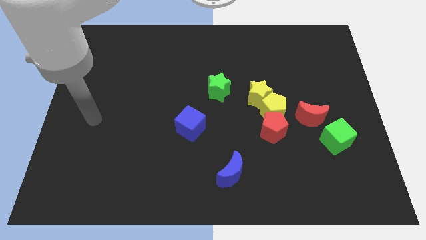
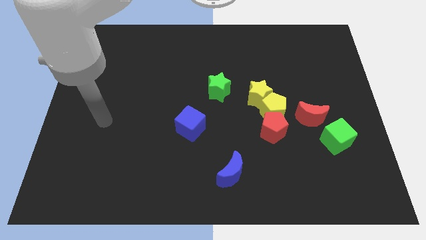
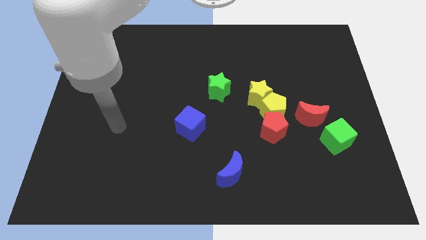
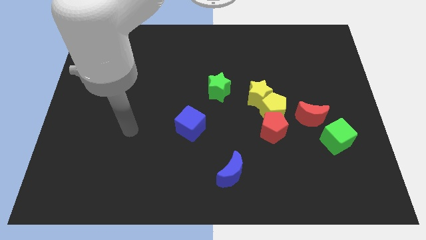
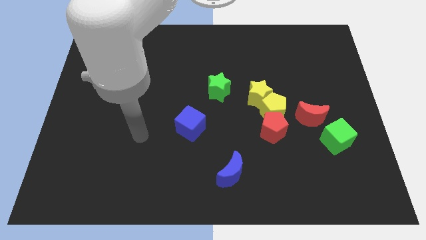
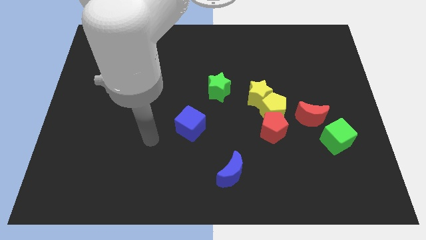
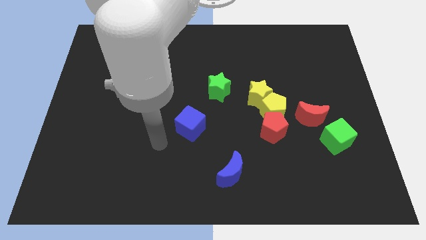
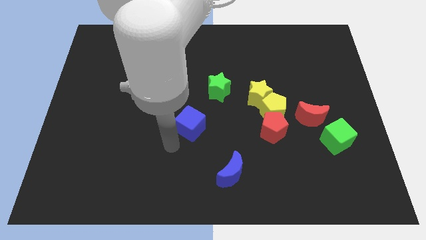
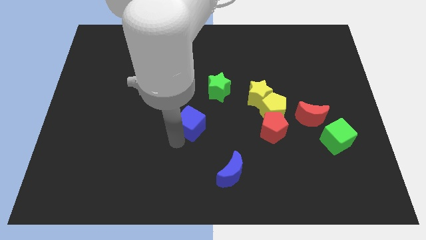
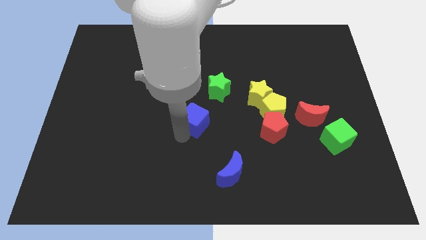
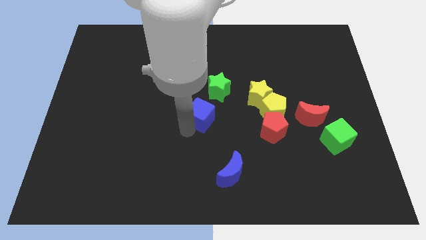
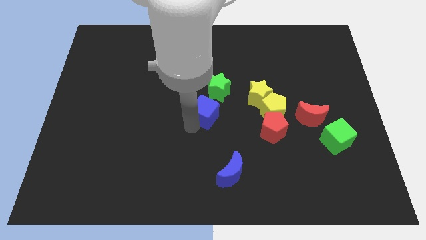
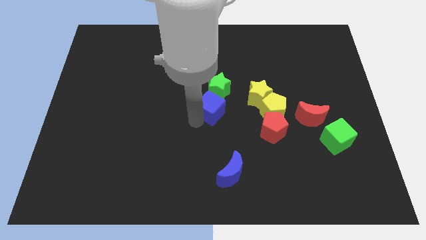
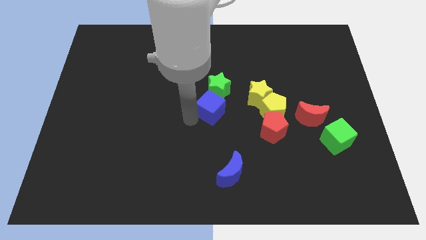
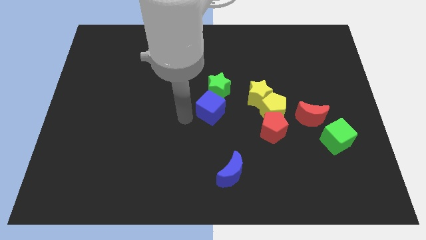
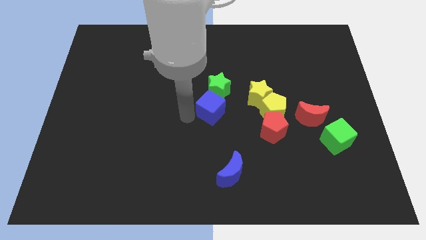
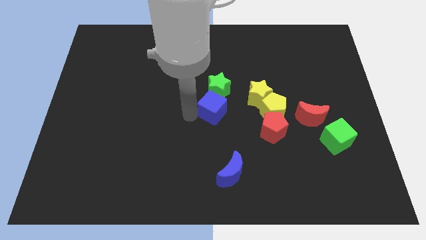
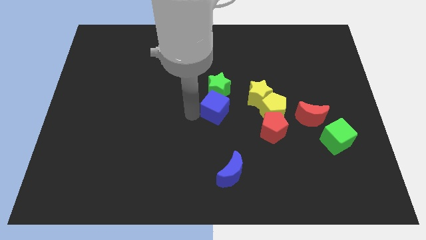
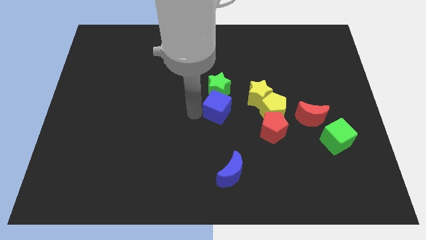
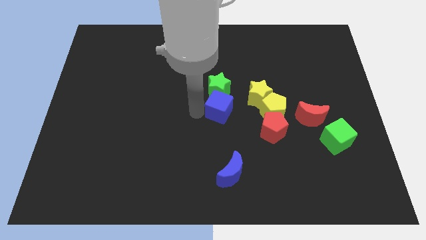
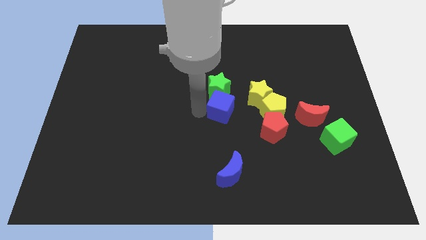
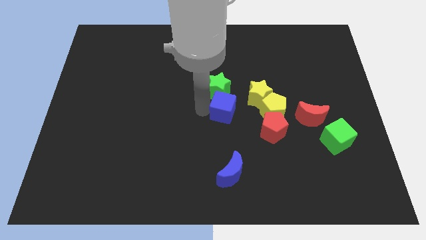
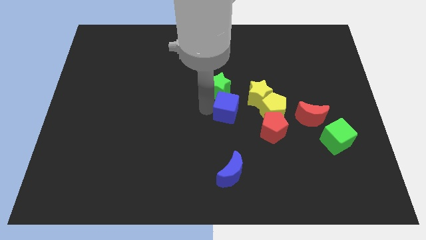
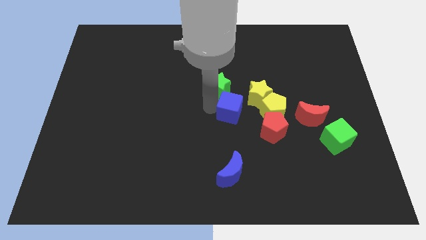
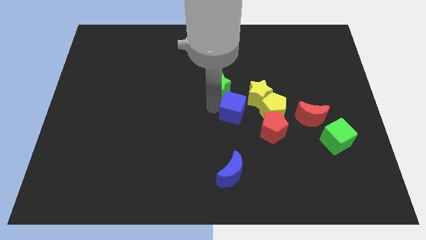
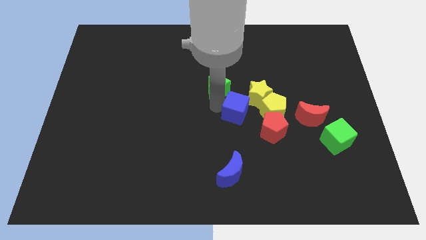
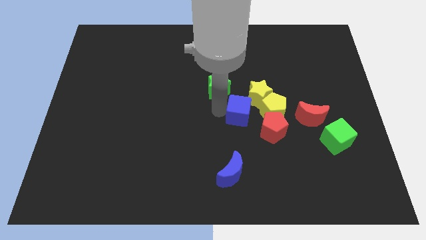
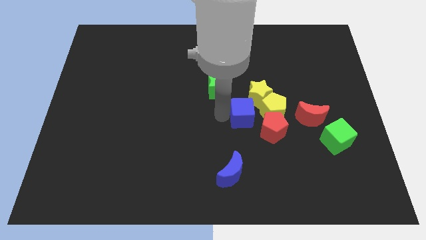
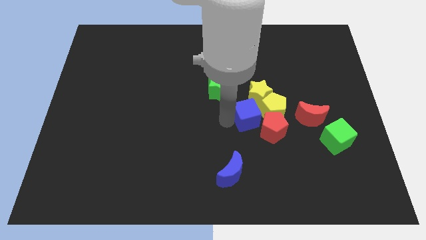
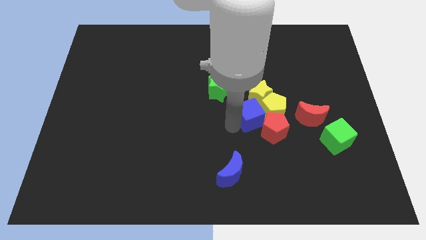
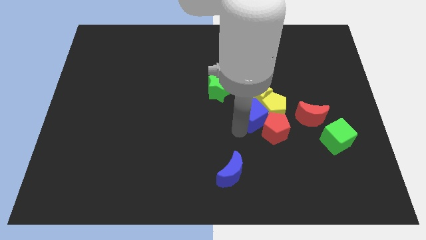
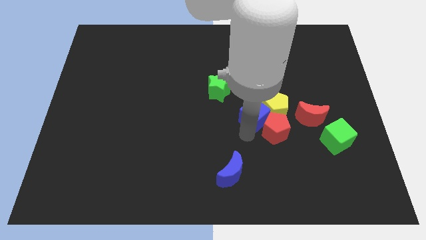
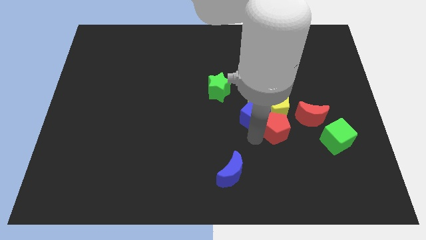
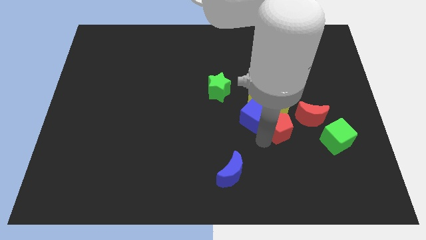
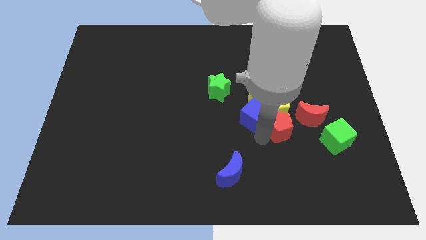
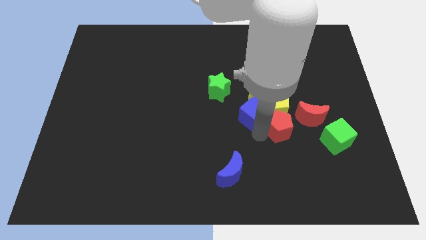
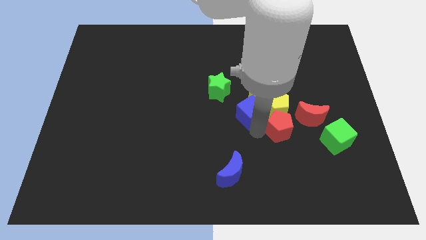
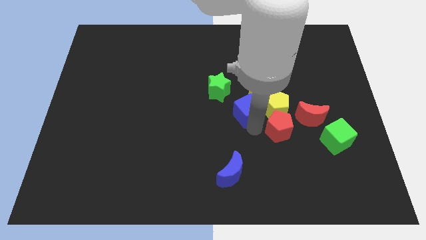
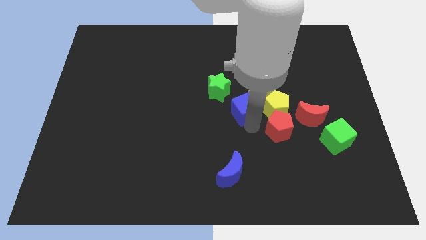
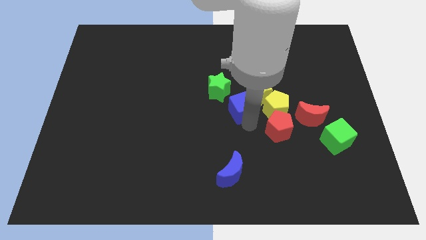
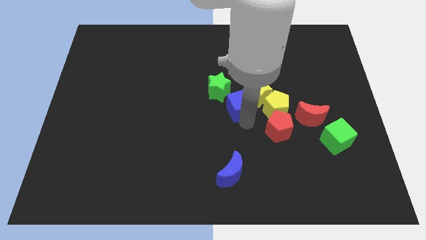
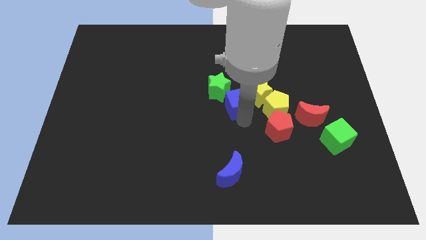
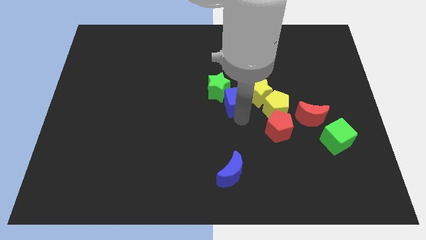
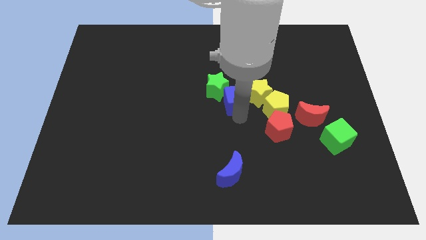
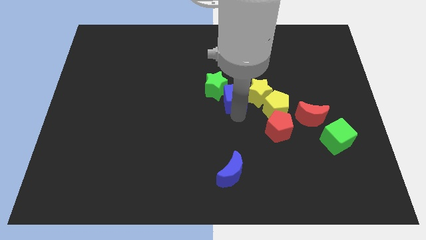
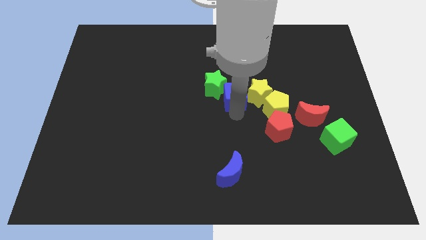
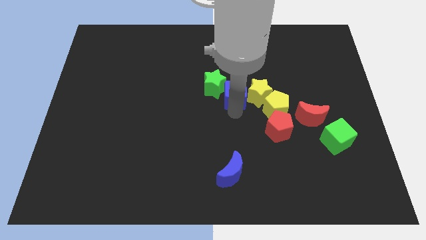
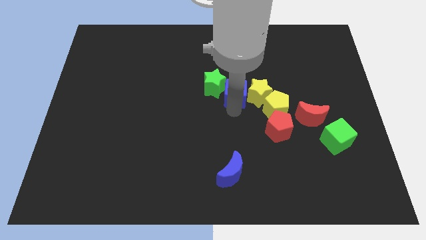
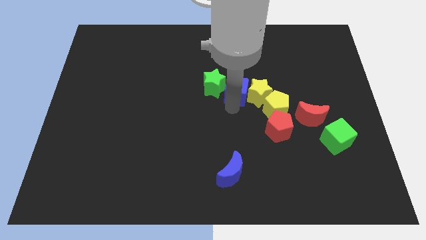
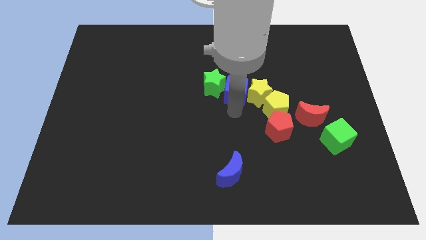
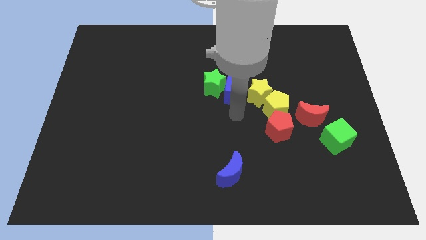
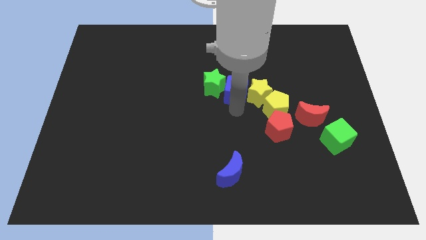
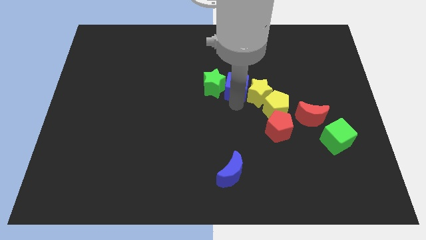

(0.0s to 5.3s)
move the blue cube diagonally up and to the right of the green star

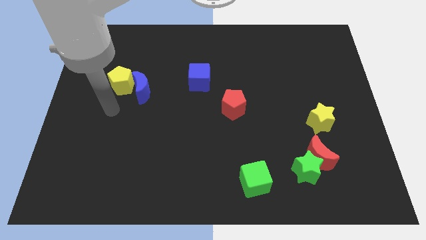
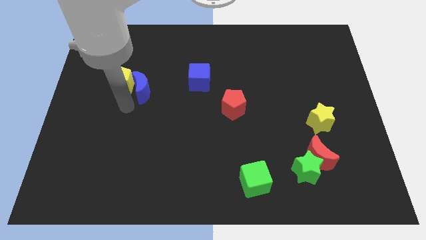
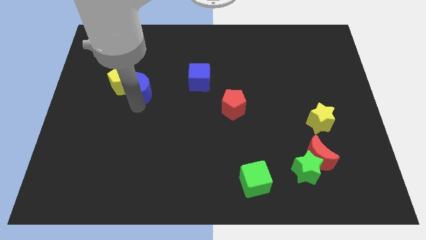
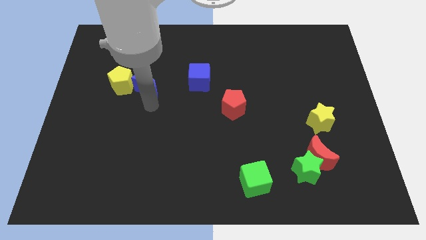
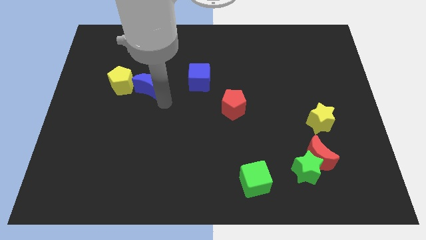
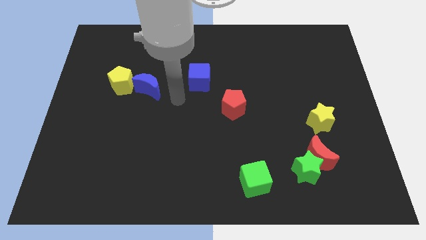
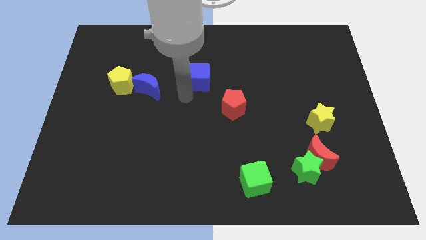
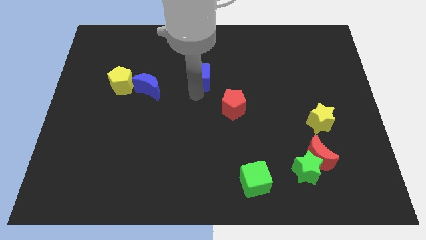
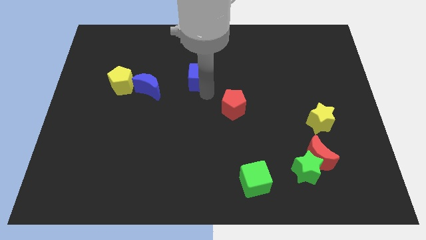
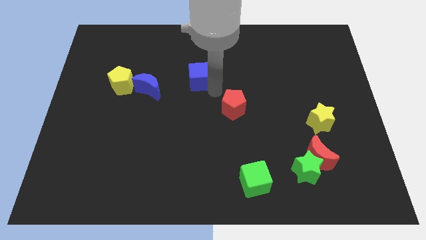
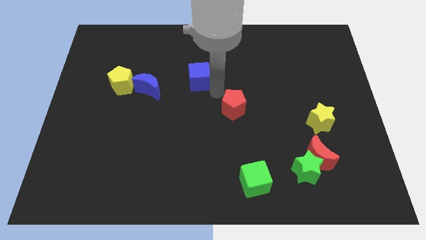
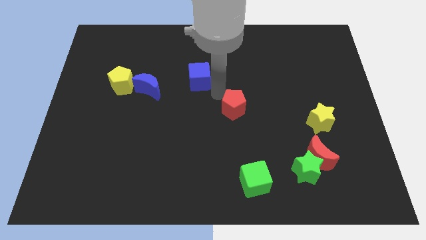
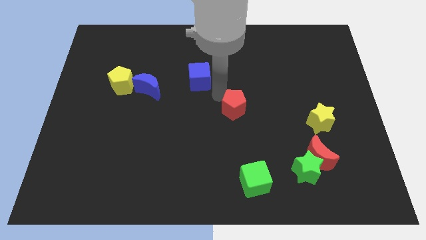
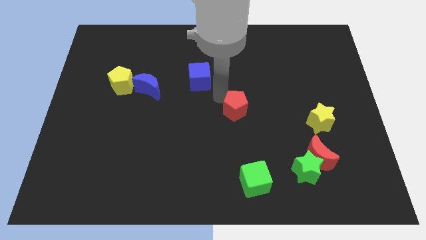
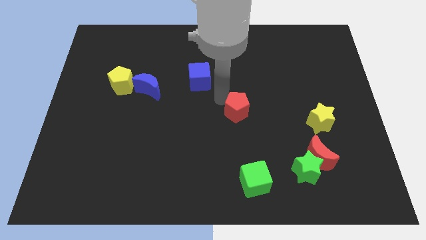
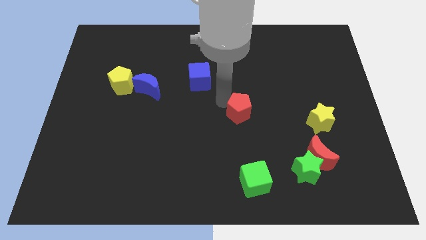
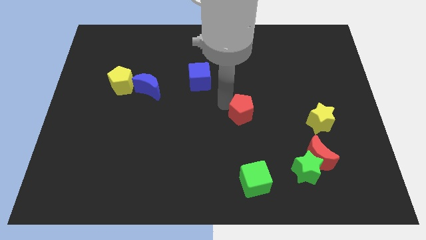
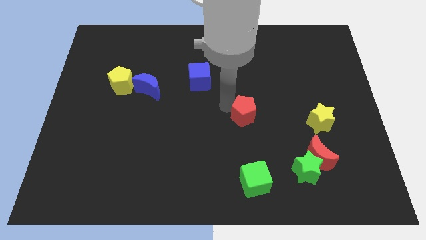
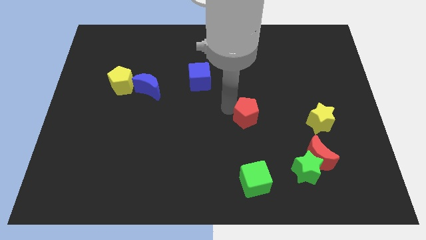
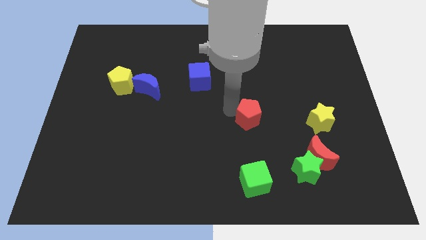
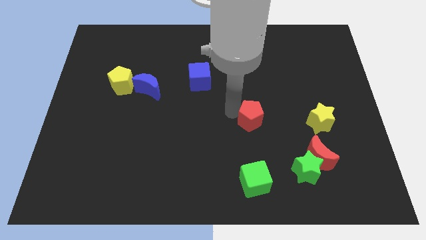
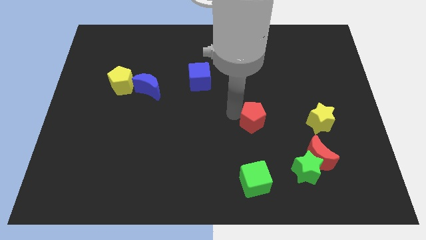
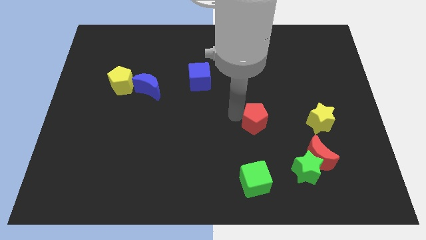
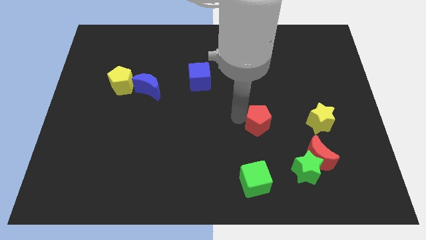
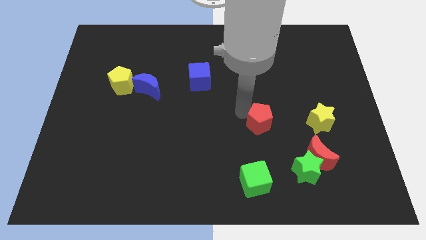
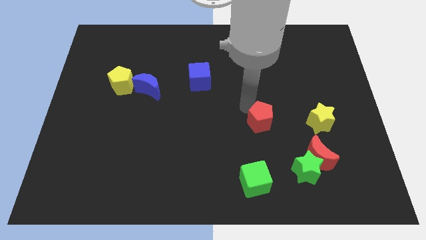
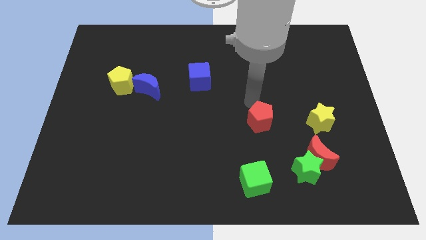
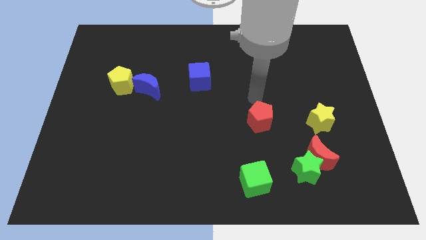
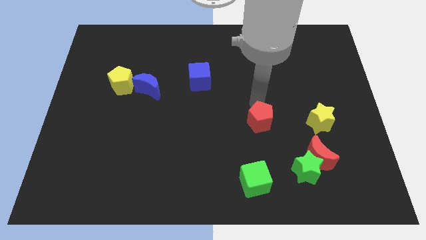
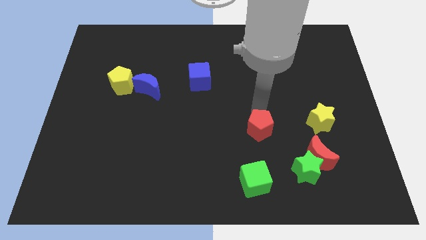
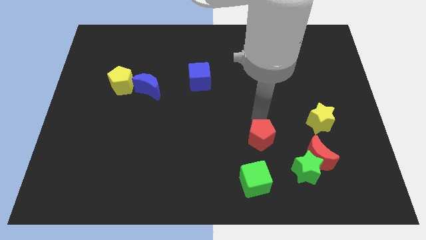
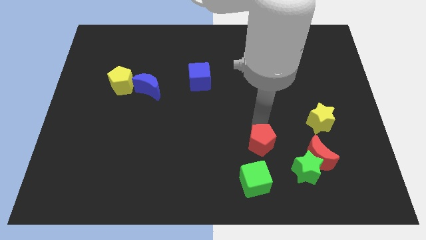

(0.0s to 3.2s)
move the red pentagon to the left of the red moon
